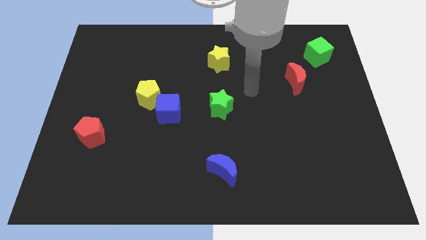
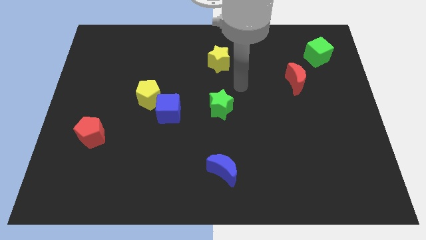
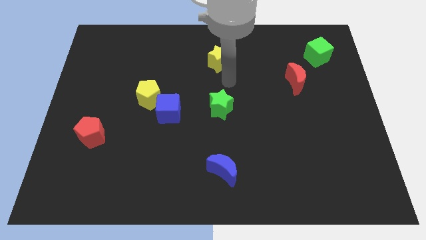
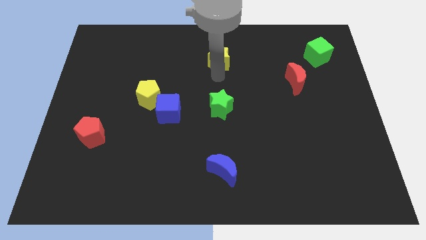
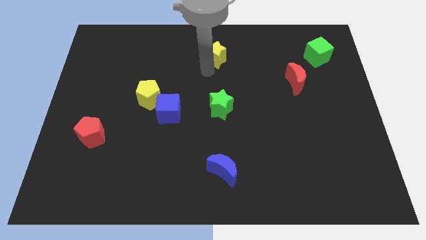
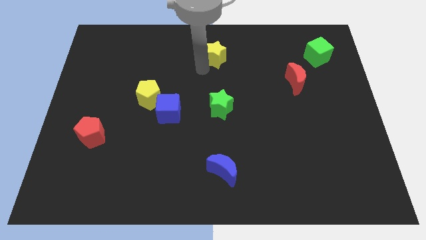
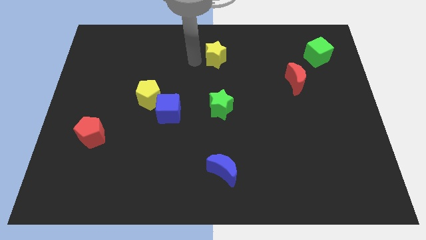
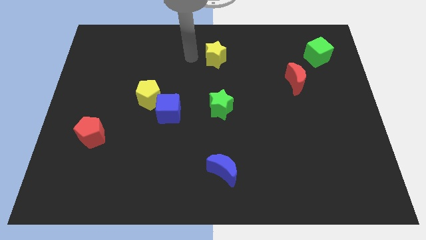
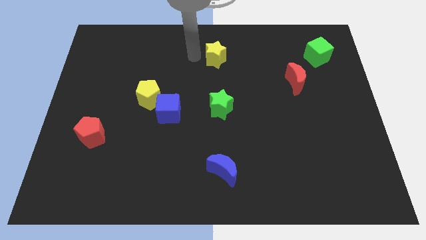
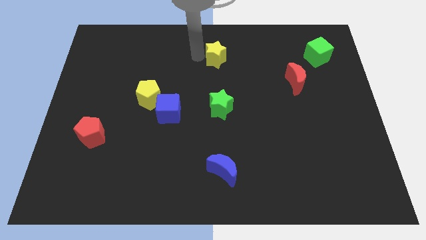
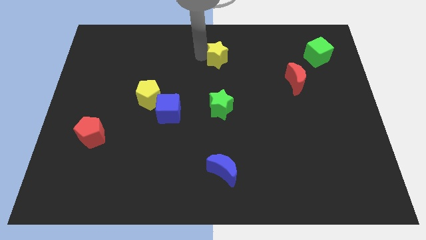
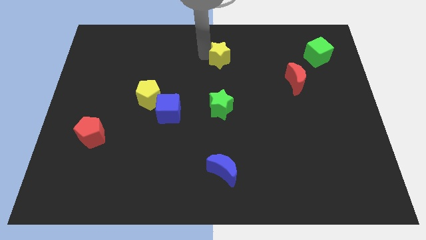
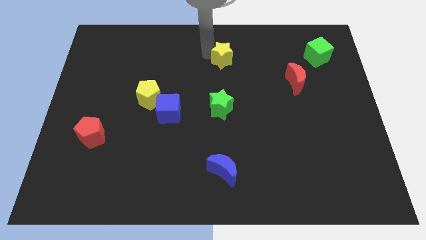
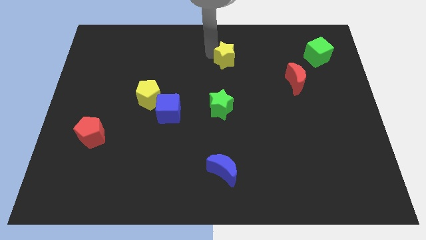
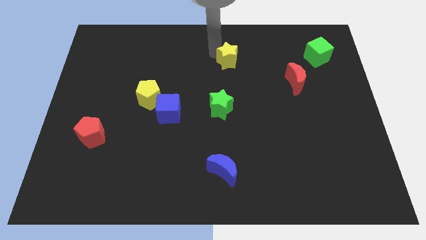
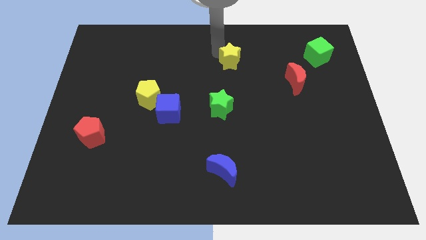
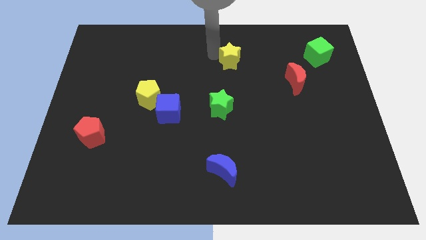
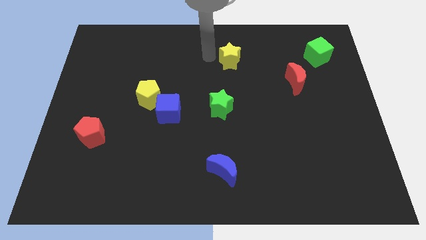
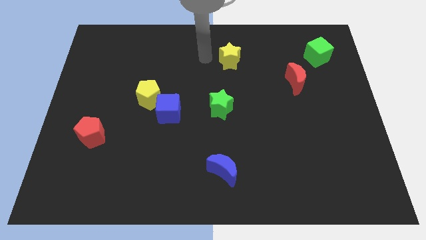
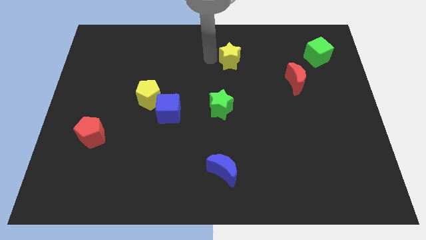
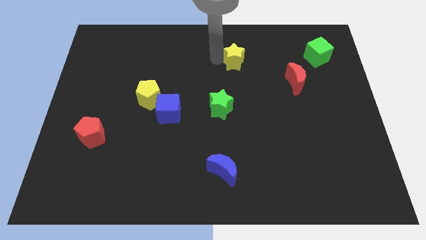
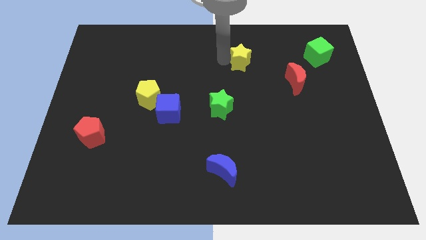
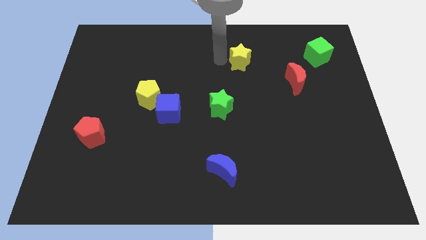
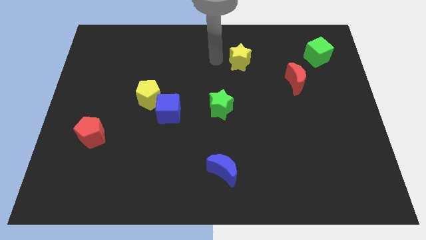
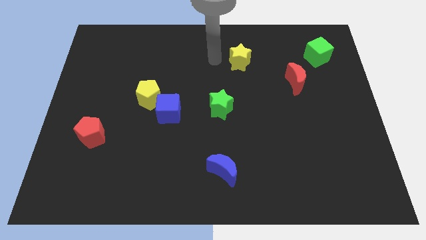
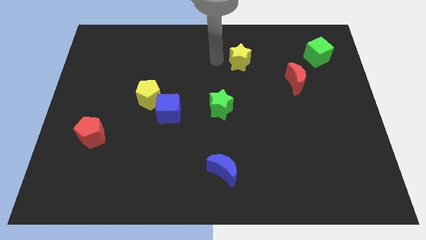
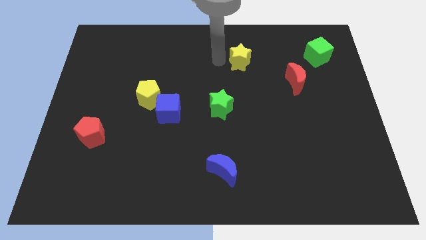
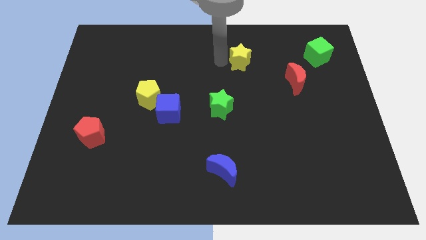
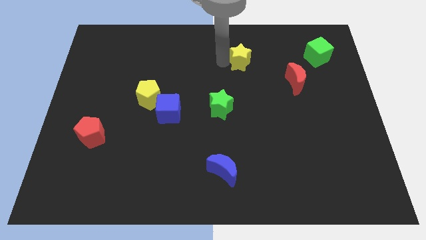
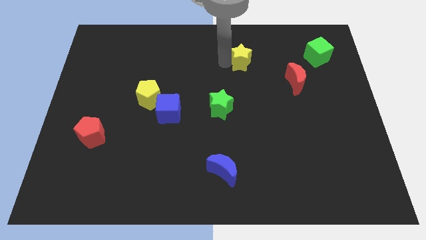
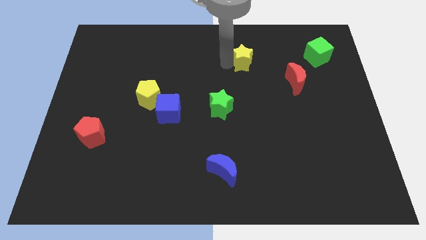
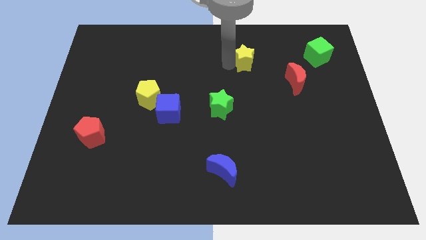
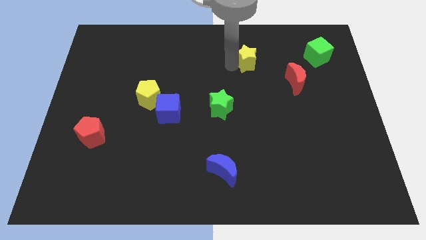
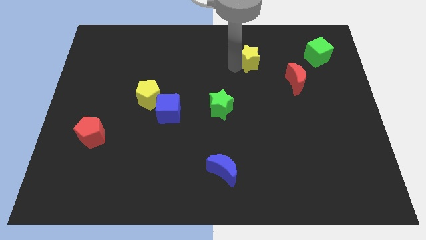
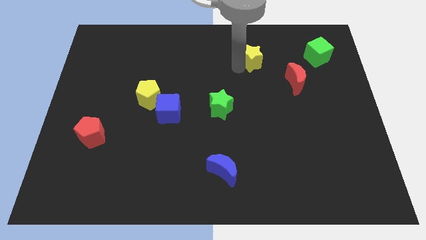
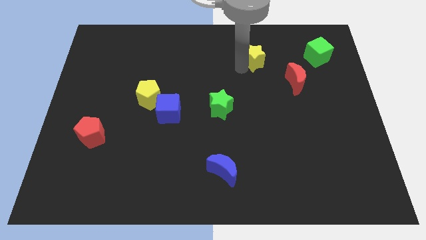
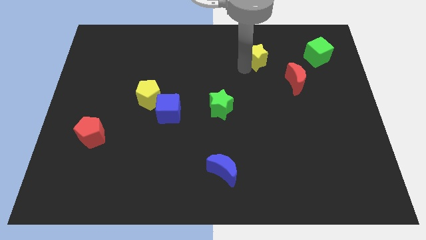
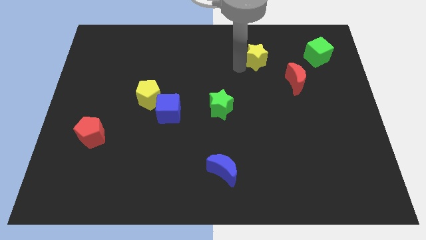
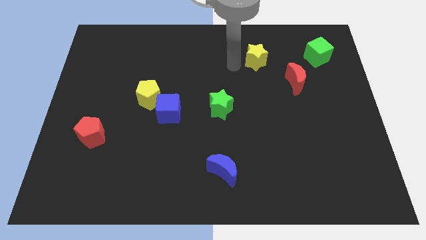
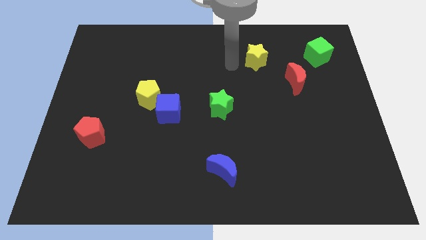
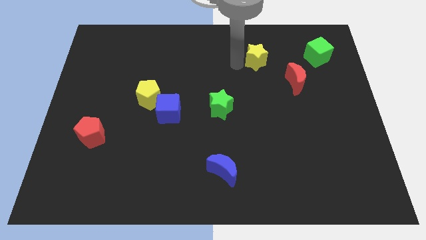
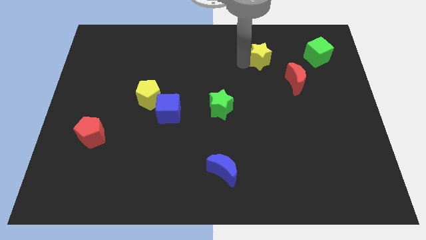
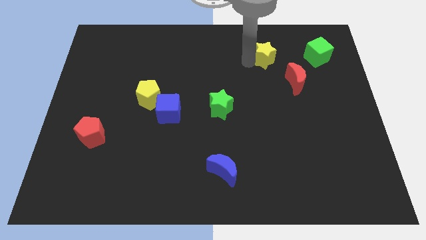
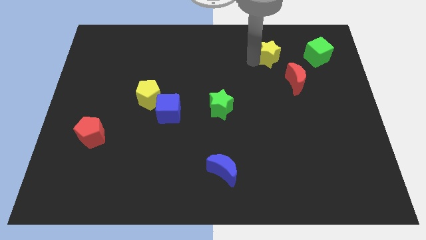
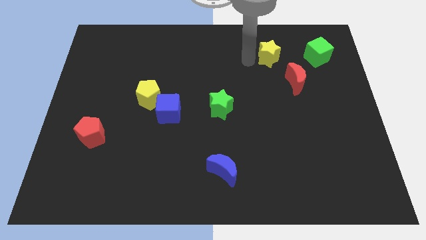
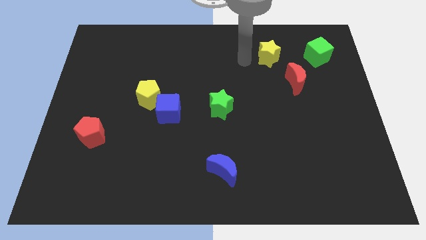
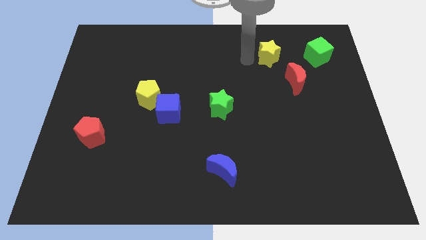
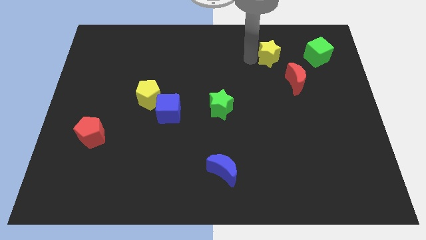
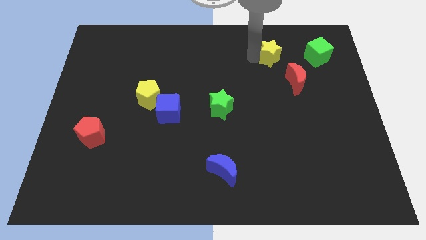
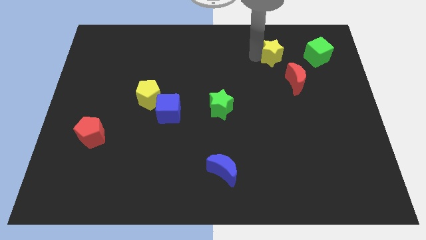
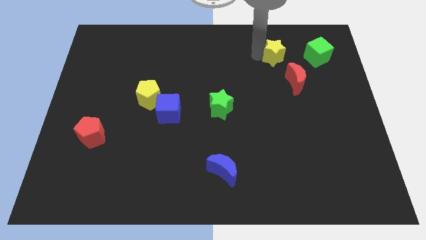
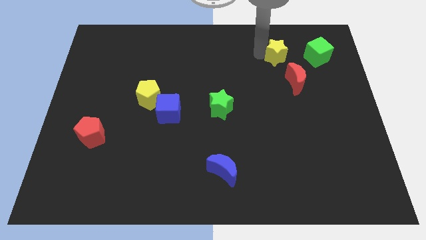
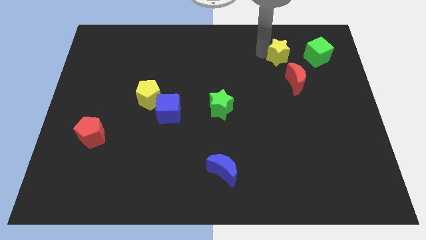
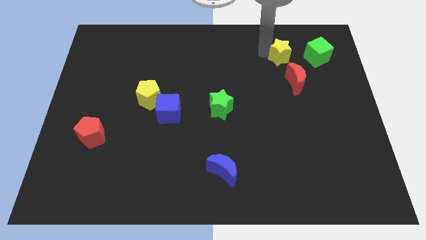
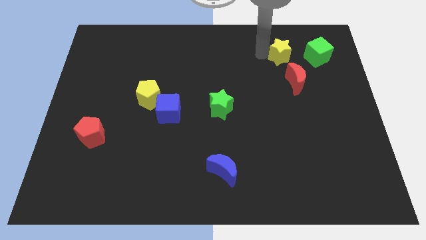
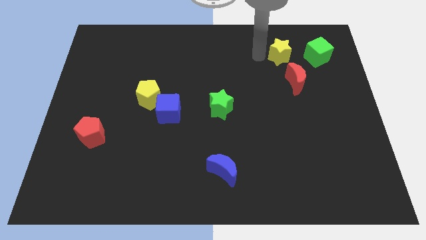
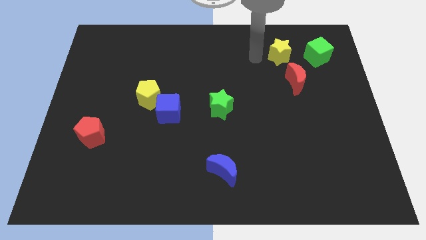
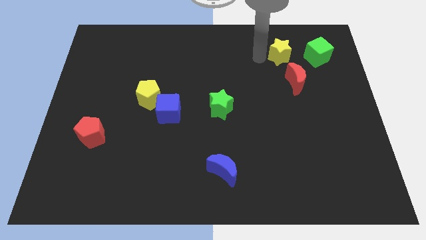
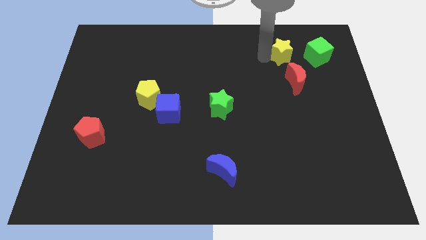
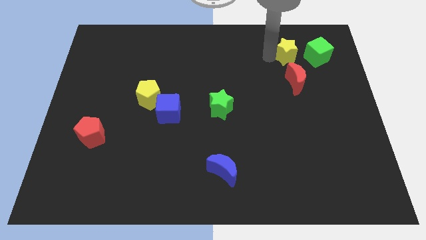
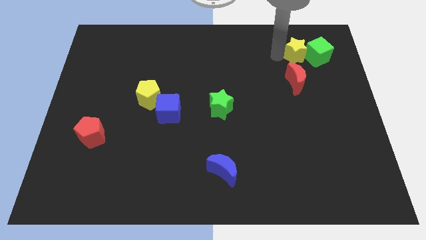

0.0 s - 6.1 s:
put the yellow star next to the green cube

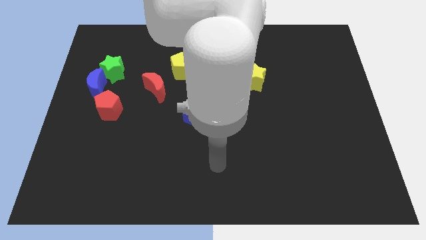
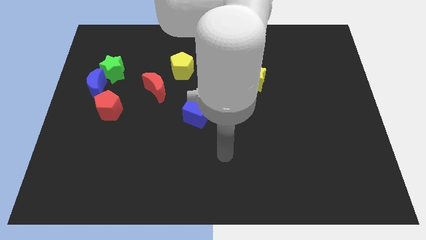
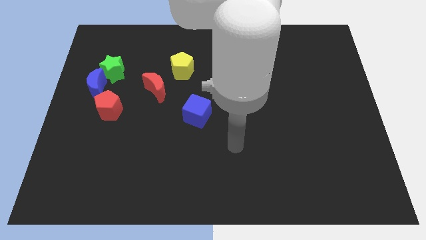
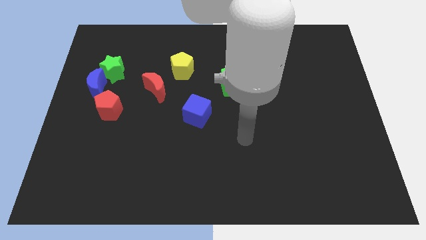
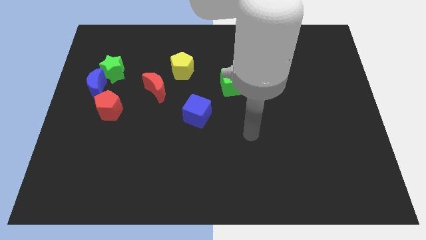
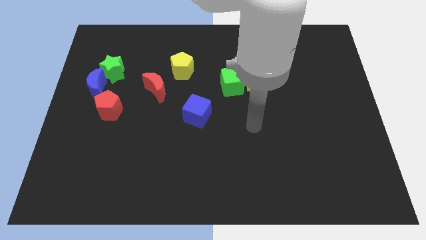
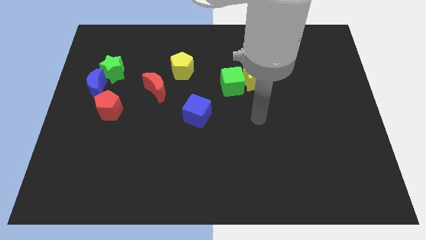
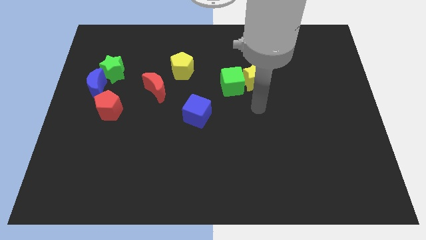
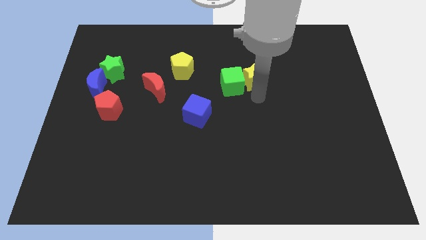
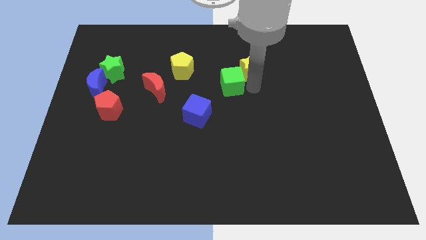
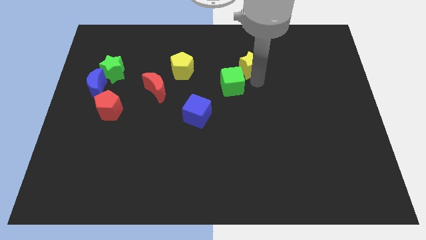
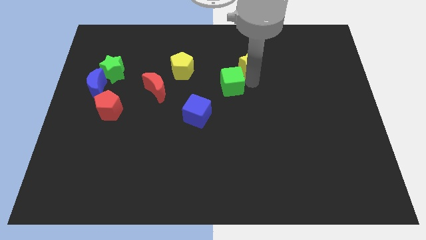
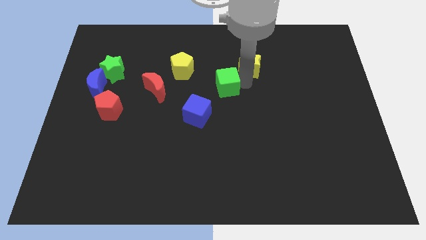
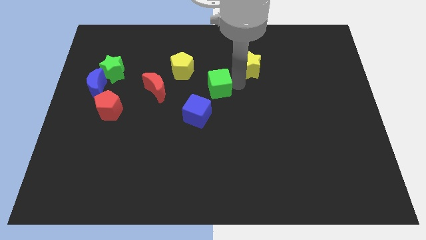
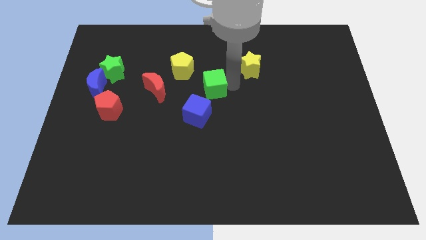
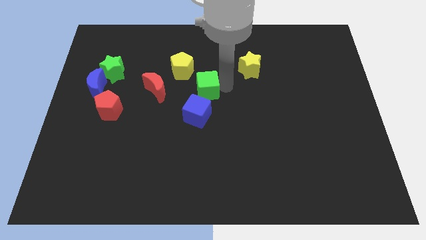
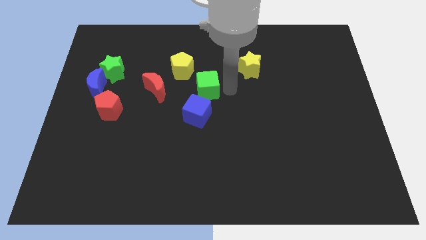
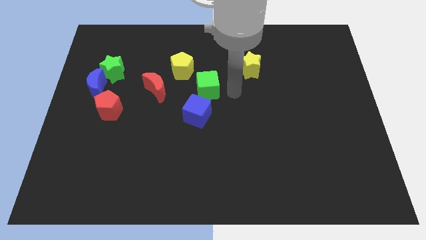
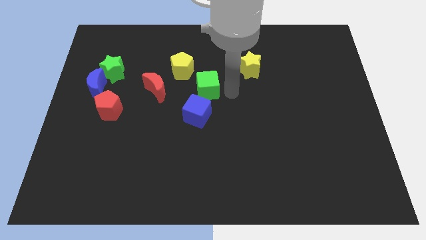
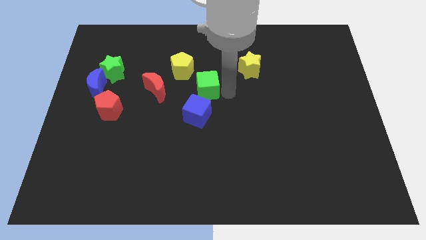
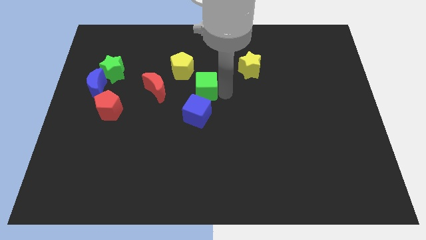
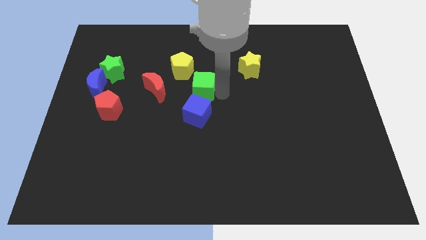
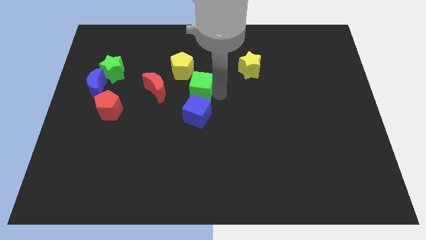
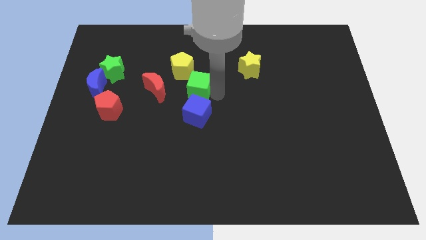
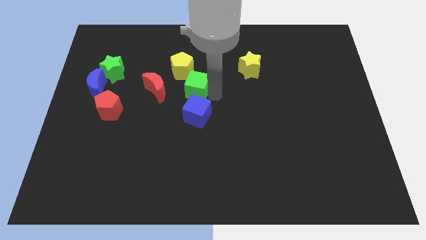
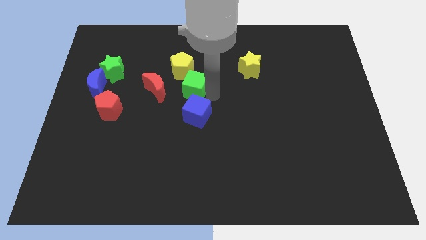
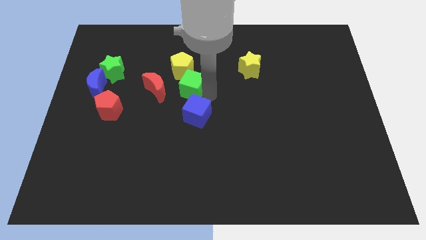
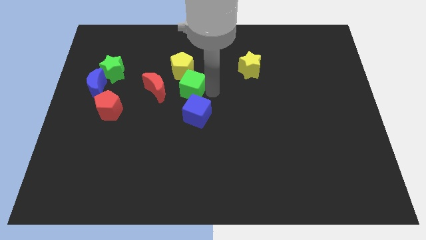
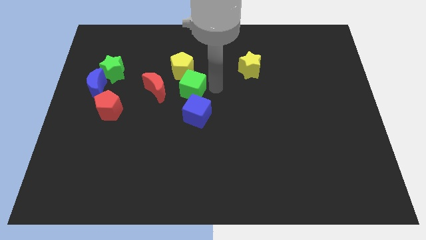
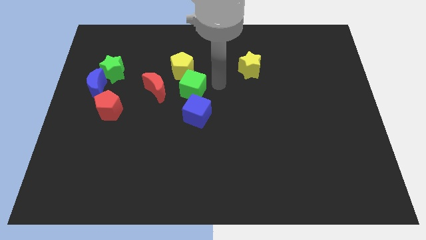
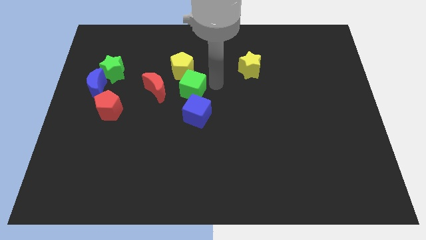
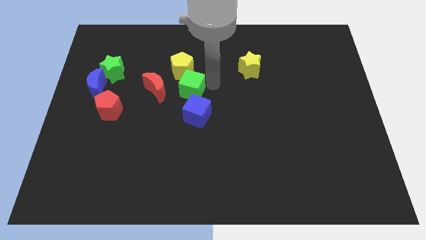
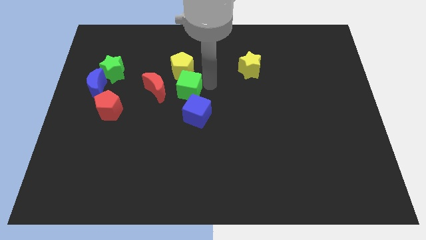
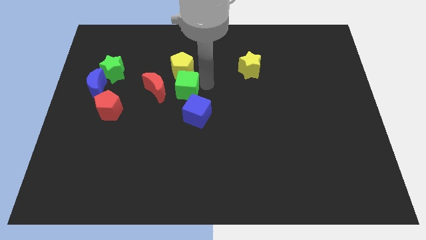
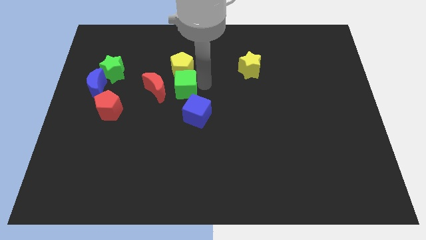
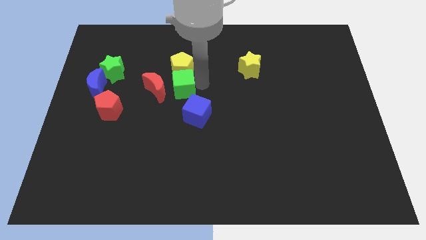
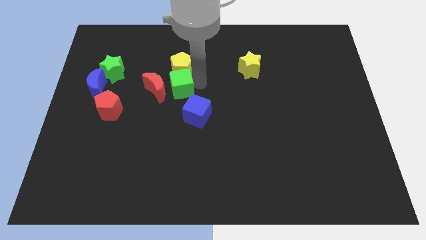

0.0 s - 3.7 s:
move the green cube towards the red moon
